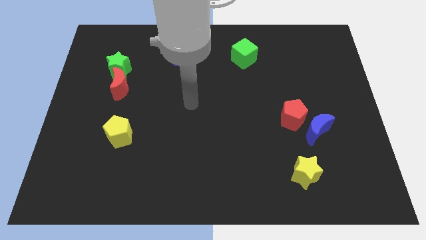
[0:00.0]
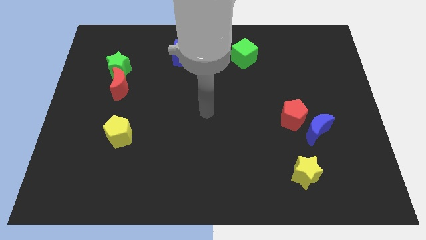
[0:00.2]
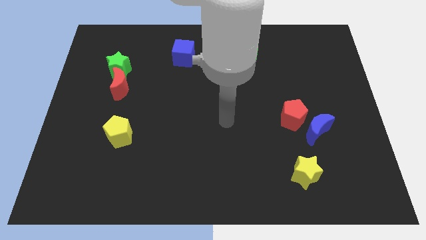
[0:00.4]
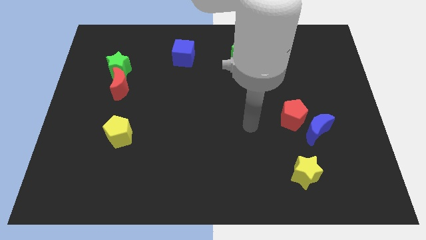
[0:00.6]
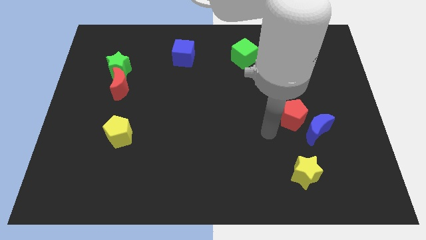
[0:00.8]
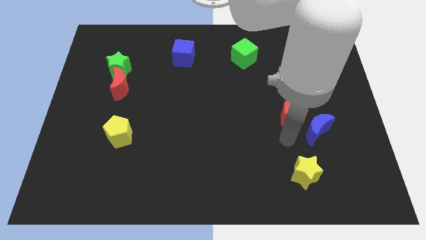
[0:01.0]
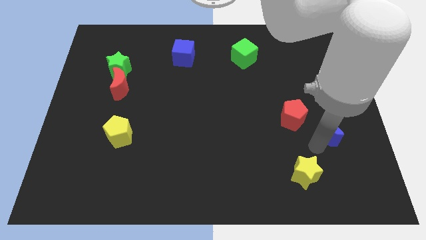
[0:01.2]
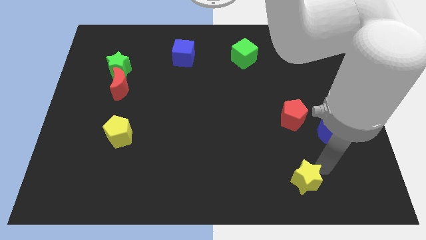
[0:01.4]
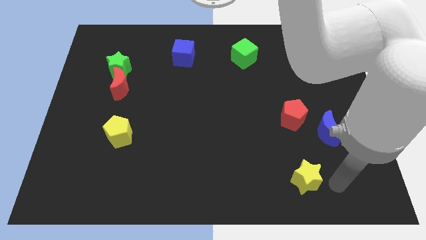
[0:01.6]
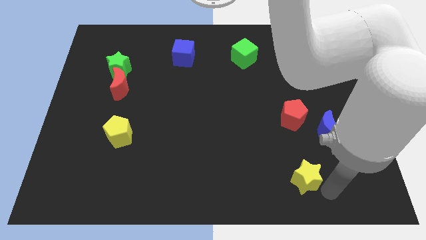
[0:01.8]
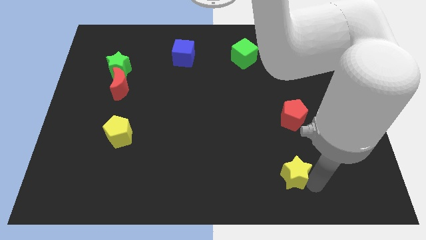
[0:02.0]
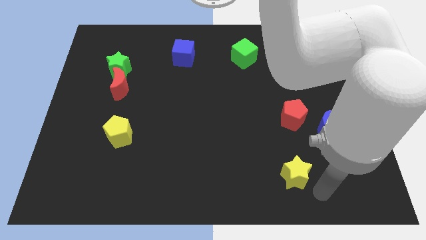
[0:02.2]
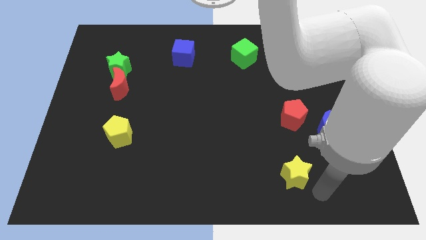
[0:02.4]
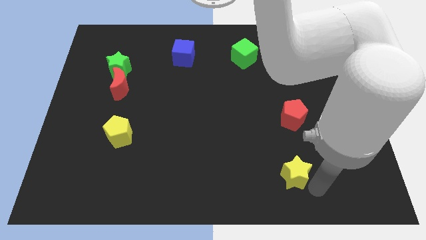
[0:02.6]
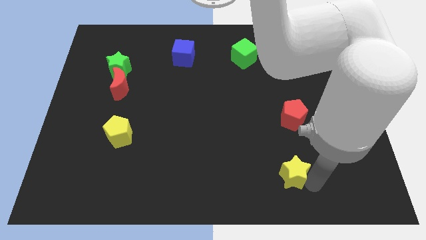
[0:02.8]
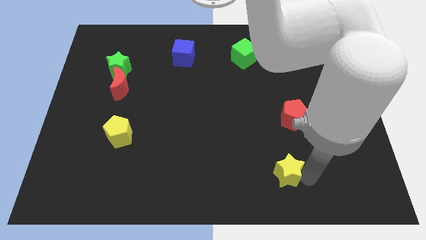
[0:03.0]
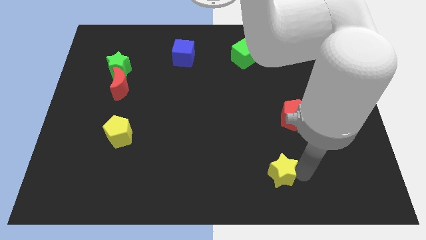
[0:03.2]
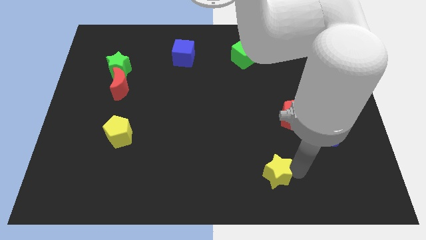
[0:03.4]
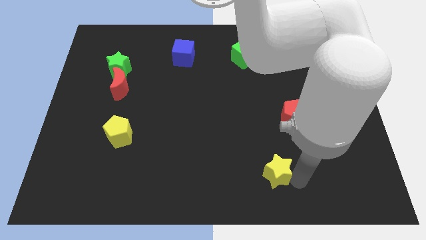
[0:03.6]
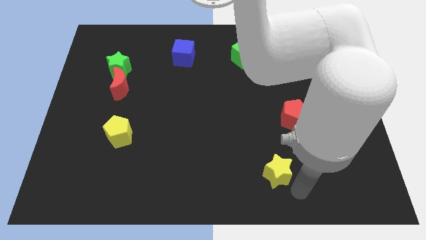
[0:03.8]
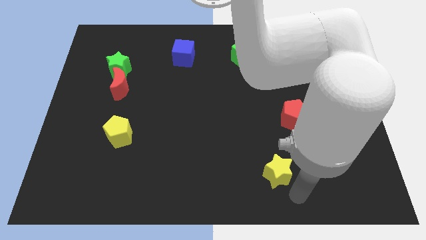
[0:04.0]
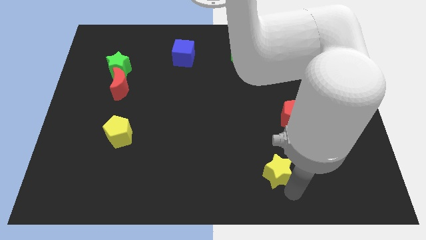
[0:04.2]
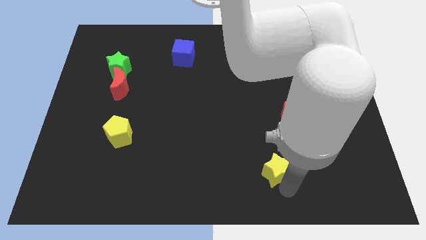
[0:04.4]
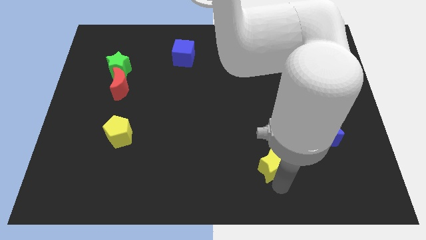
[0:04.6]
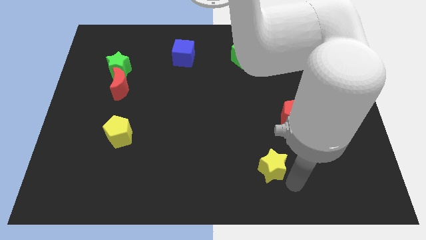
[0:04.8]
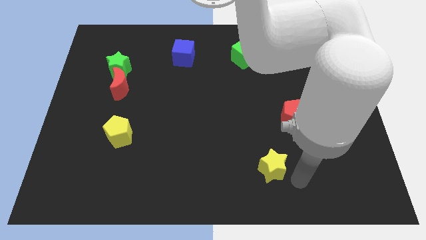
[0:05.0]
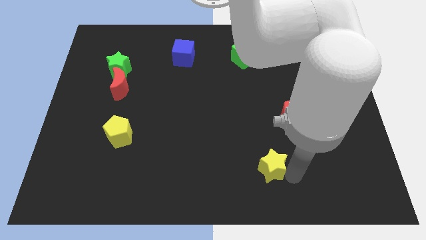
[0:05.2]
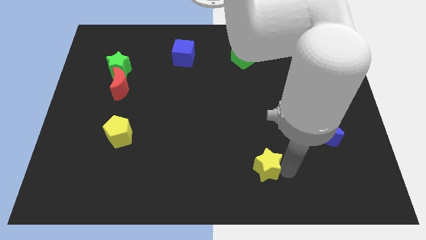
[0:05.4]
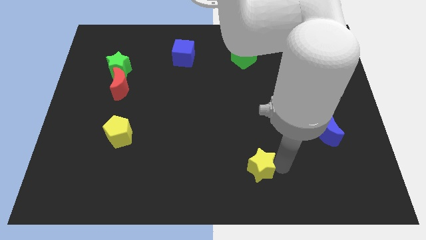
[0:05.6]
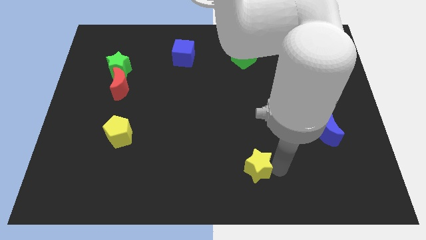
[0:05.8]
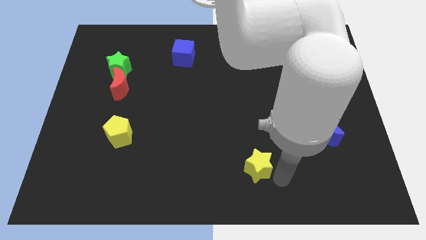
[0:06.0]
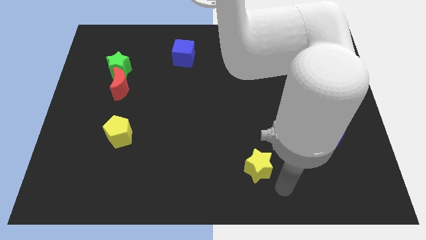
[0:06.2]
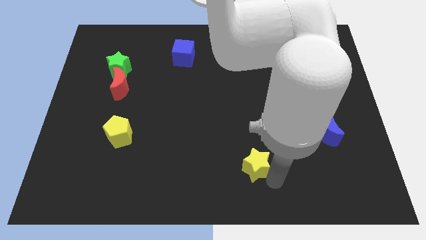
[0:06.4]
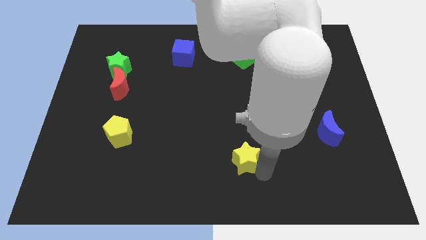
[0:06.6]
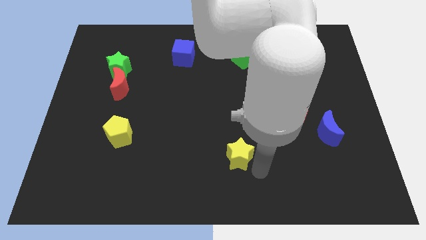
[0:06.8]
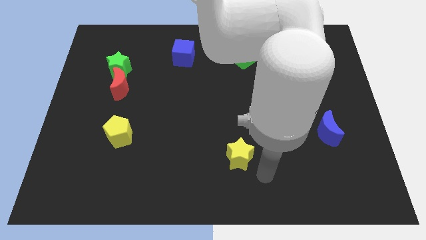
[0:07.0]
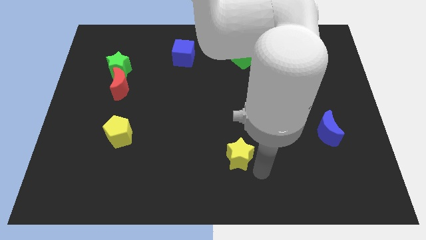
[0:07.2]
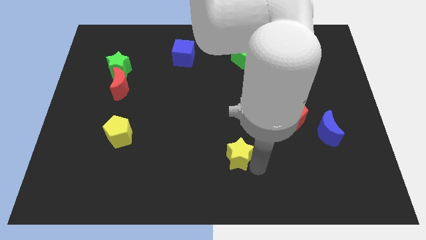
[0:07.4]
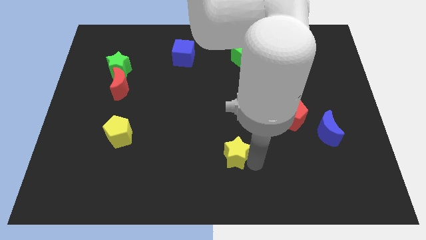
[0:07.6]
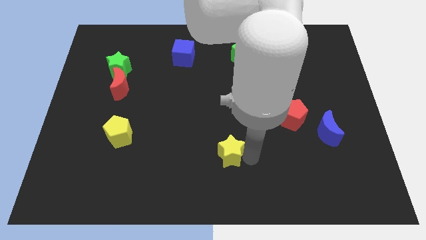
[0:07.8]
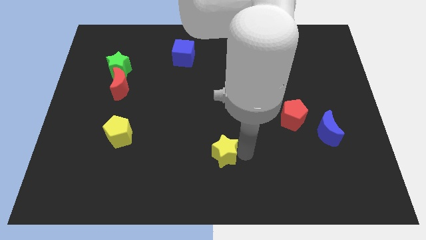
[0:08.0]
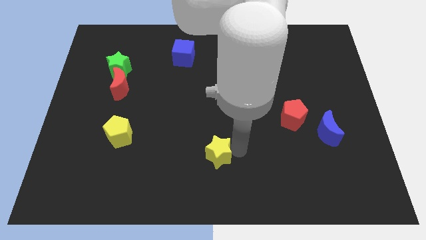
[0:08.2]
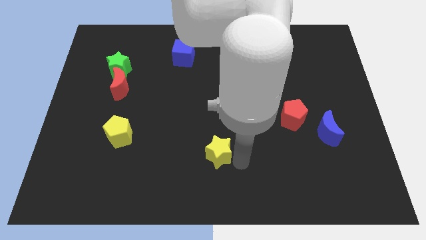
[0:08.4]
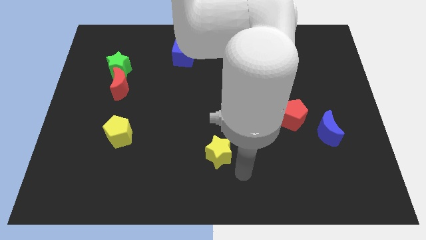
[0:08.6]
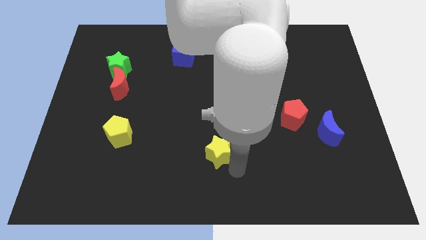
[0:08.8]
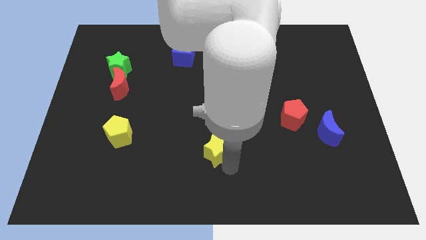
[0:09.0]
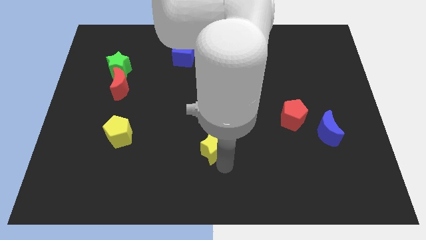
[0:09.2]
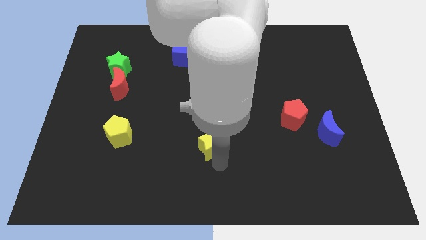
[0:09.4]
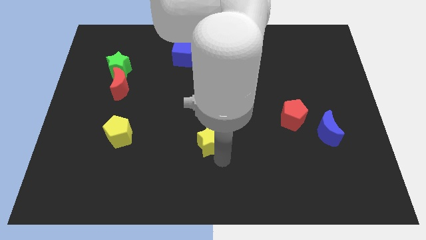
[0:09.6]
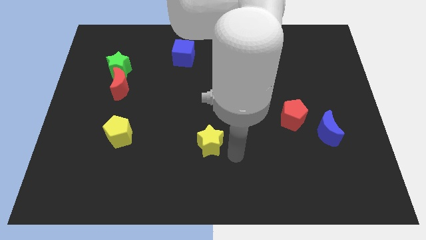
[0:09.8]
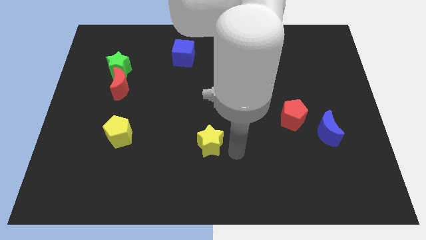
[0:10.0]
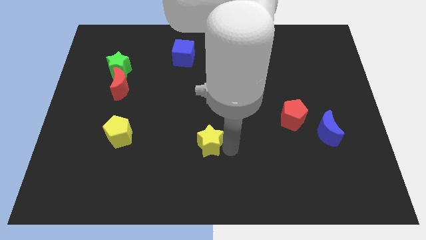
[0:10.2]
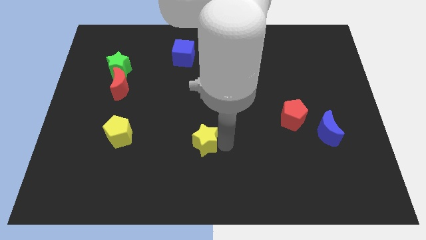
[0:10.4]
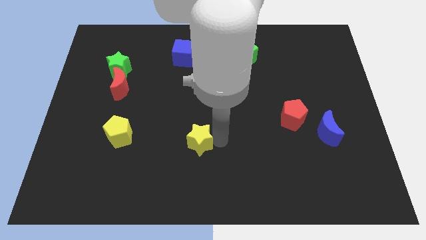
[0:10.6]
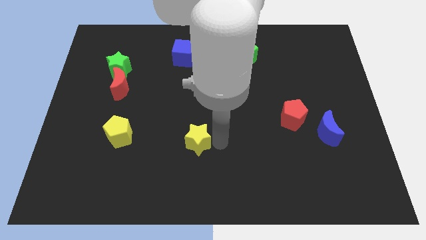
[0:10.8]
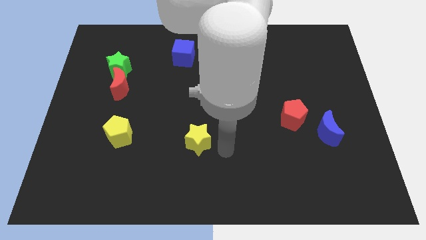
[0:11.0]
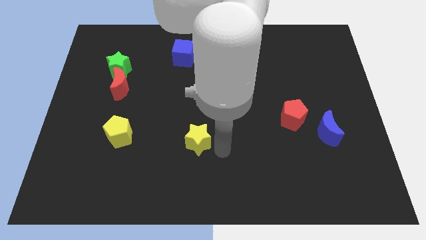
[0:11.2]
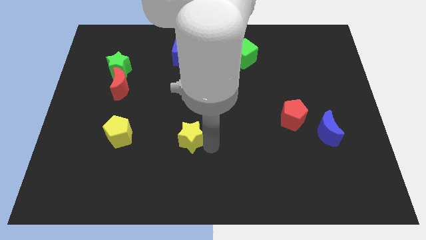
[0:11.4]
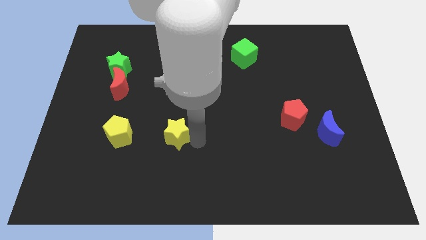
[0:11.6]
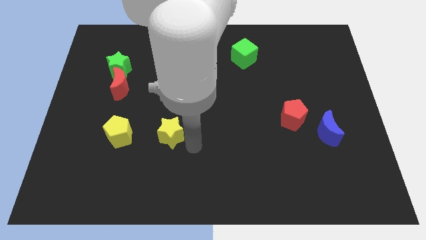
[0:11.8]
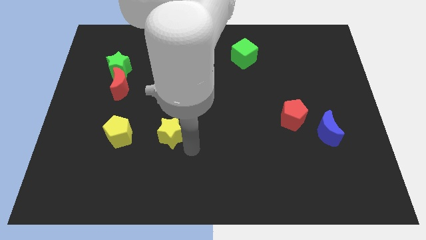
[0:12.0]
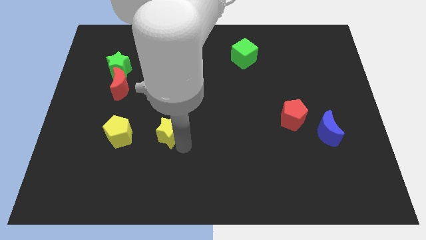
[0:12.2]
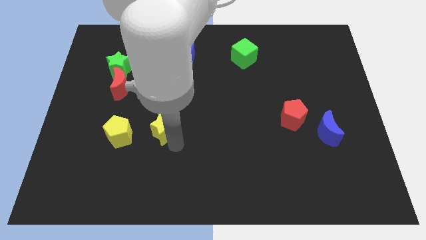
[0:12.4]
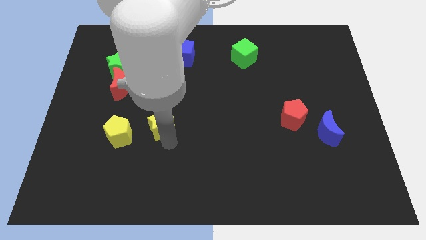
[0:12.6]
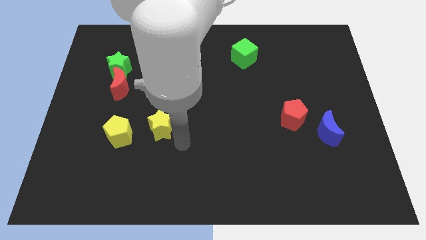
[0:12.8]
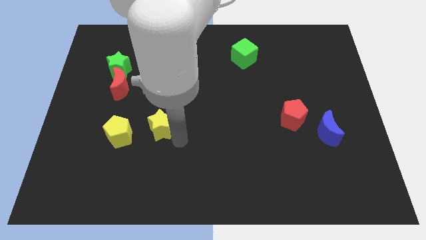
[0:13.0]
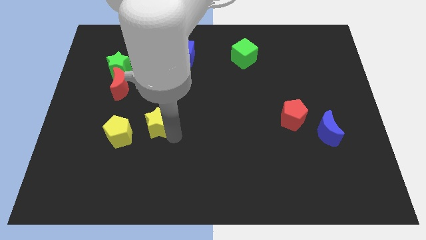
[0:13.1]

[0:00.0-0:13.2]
move the yellow star diagonally up and to the right of the yellow pentagon
